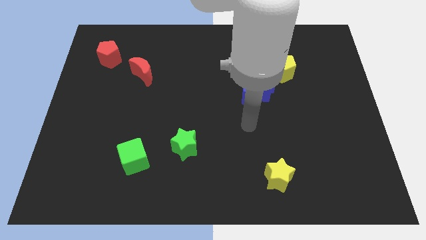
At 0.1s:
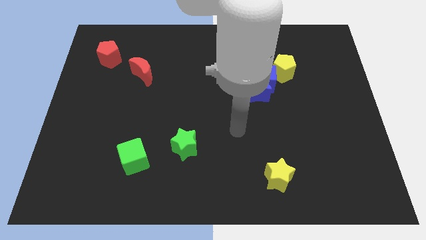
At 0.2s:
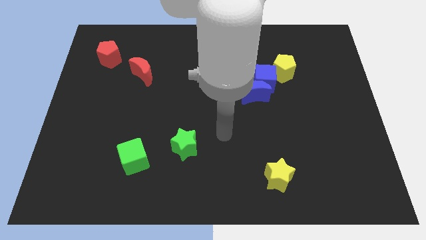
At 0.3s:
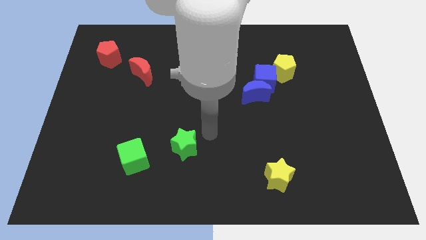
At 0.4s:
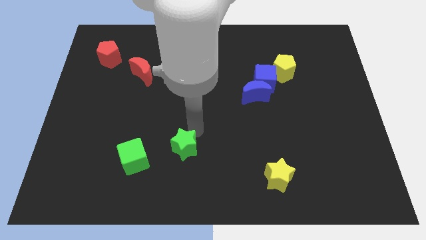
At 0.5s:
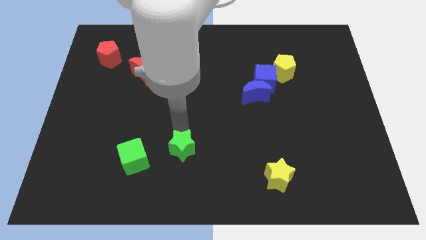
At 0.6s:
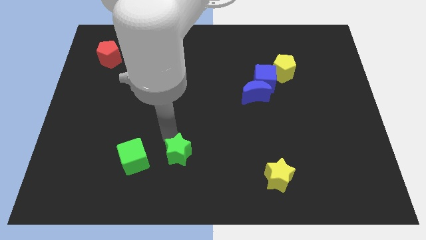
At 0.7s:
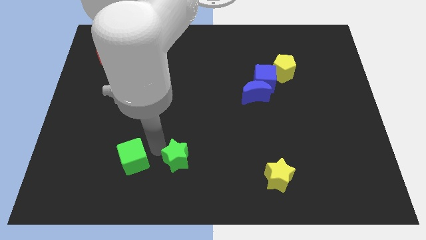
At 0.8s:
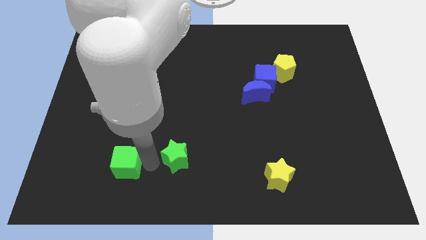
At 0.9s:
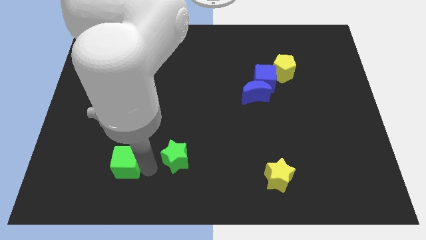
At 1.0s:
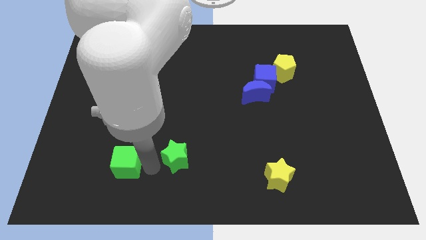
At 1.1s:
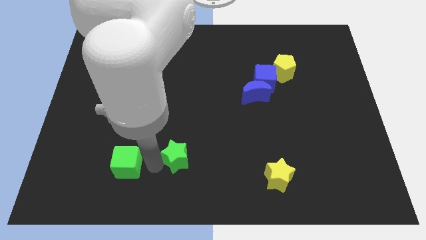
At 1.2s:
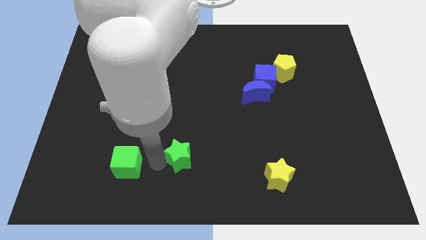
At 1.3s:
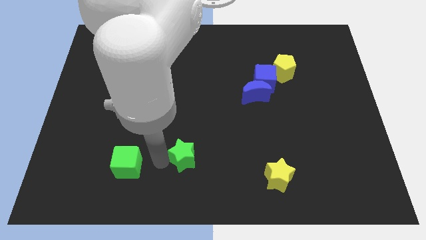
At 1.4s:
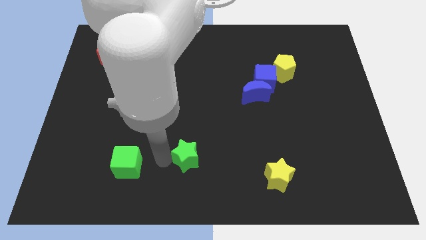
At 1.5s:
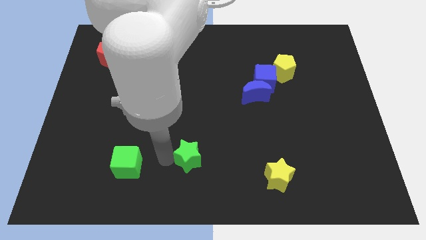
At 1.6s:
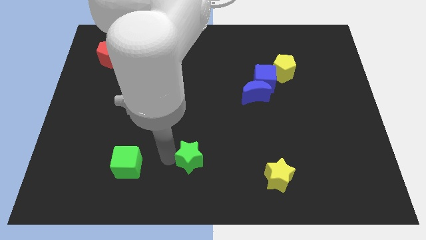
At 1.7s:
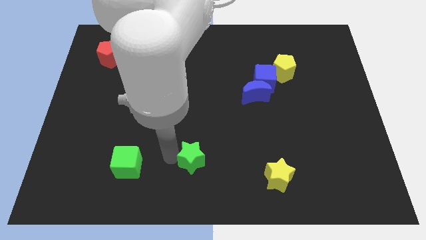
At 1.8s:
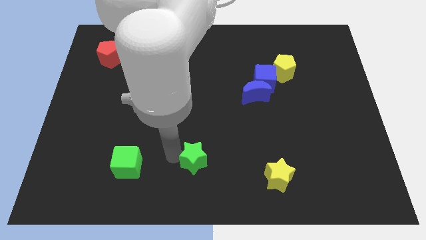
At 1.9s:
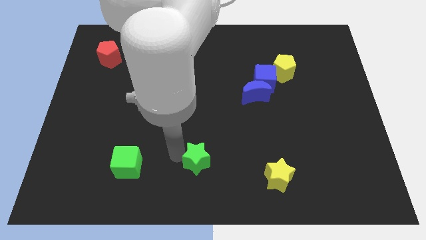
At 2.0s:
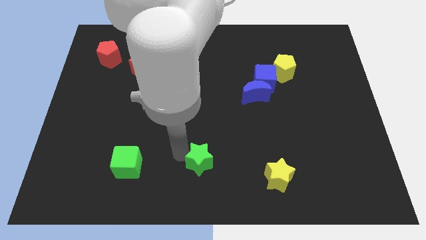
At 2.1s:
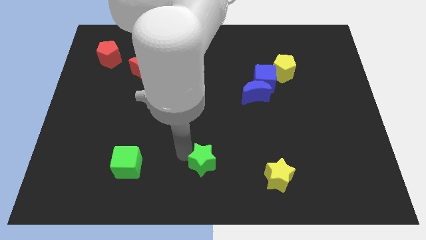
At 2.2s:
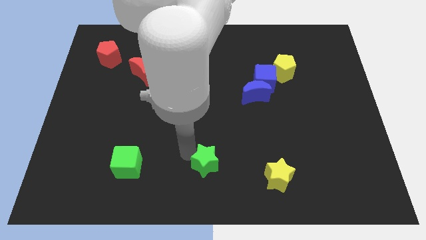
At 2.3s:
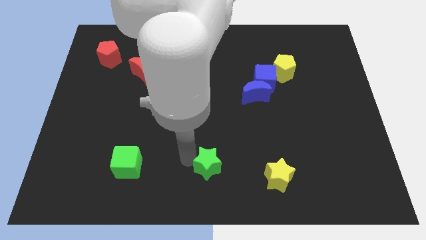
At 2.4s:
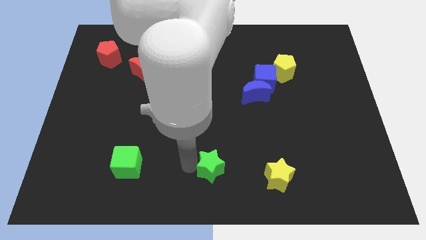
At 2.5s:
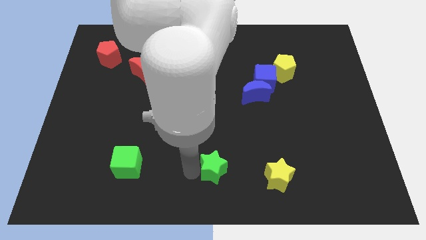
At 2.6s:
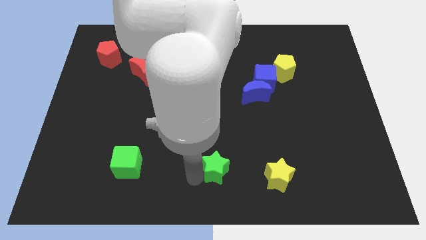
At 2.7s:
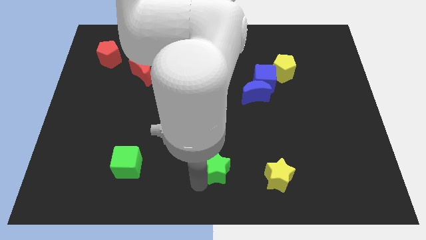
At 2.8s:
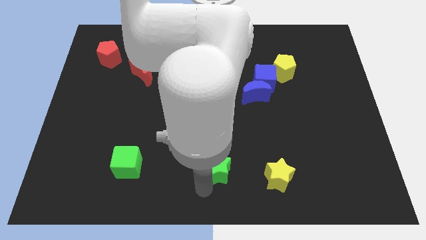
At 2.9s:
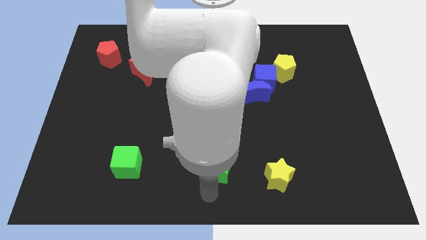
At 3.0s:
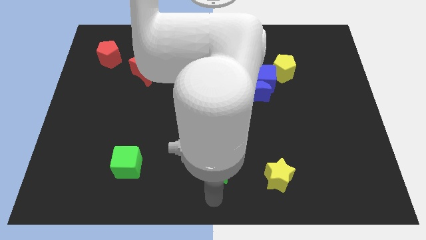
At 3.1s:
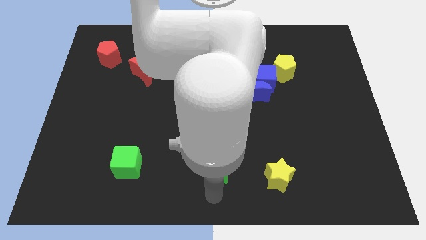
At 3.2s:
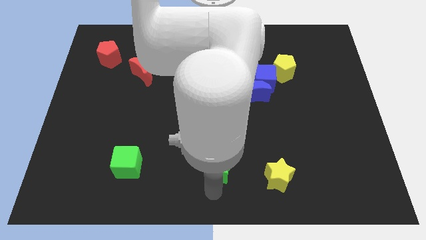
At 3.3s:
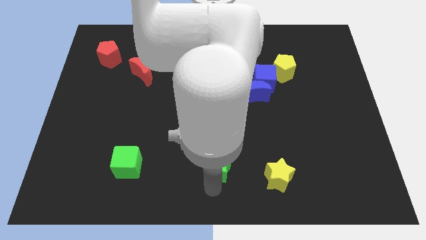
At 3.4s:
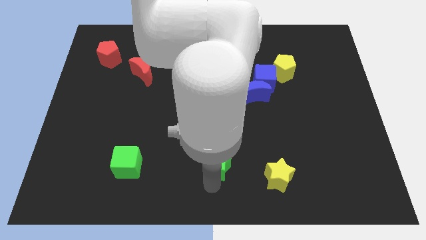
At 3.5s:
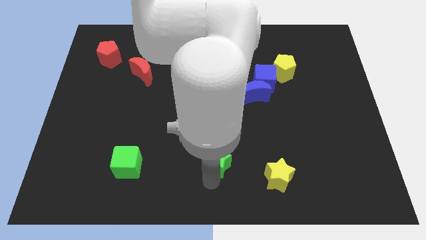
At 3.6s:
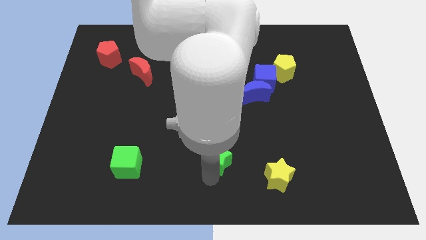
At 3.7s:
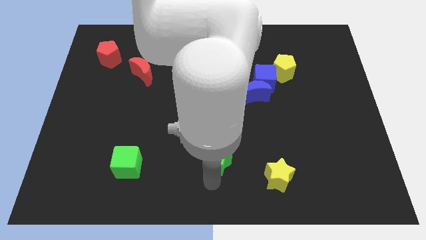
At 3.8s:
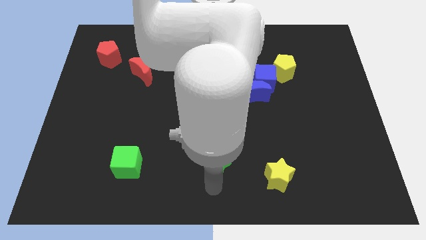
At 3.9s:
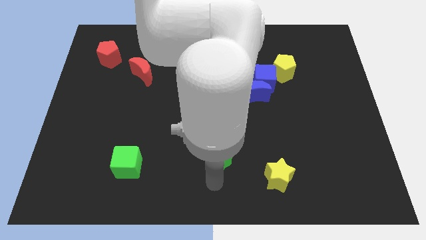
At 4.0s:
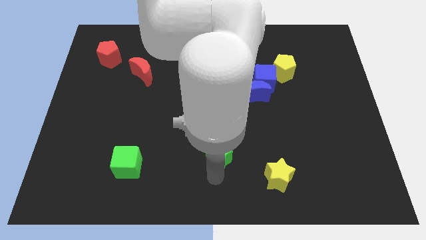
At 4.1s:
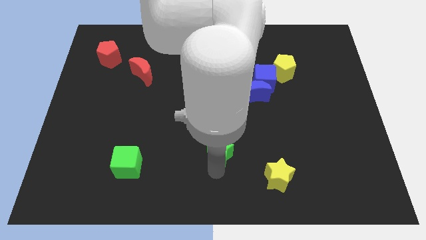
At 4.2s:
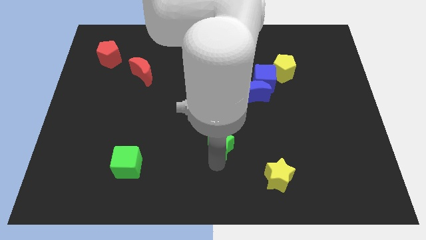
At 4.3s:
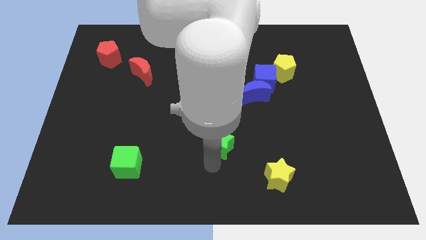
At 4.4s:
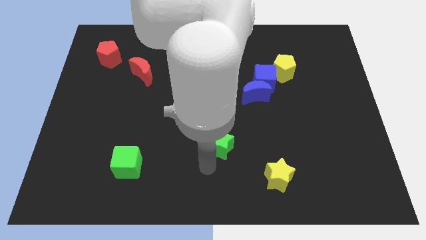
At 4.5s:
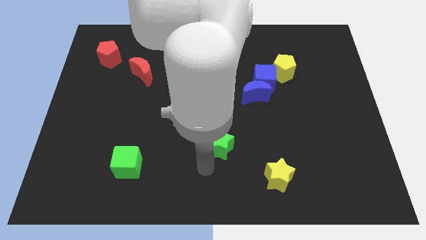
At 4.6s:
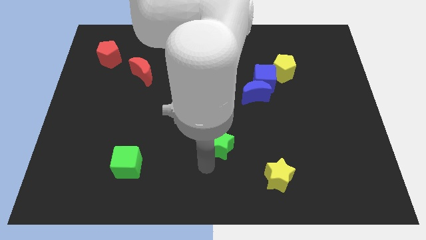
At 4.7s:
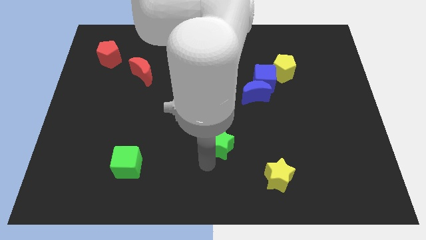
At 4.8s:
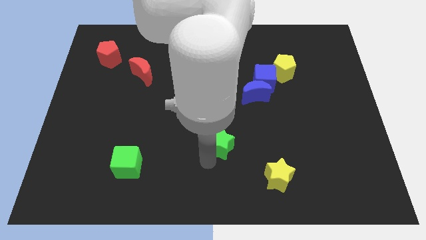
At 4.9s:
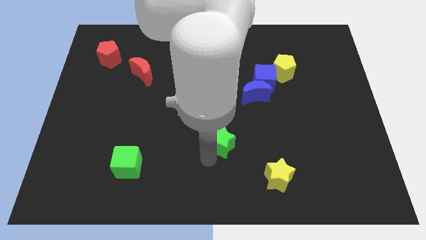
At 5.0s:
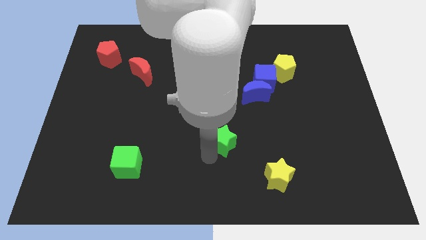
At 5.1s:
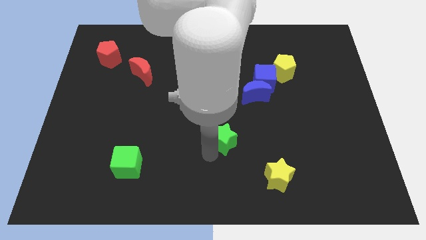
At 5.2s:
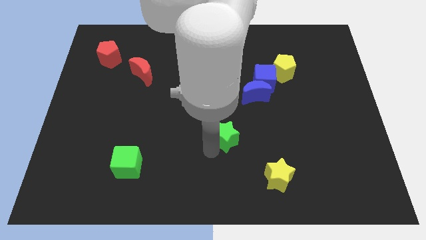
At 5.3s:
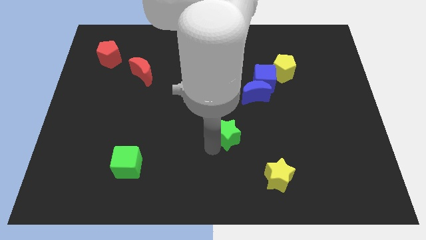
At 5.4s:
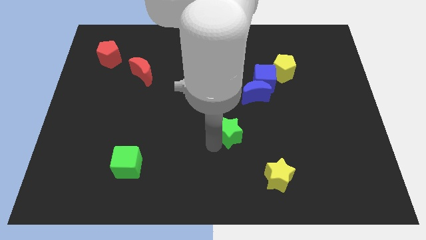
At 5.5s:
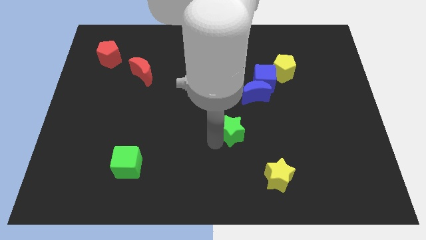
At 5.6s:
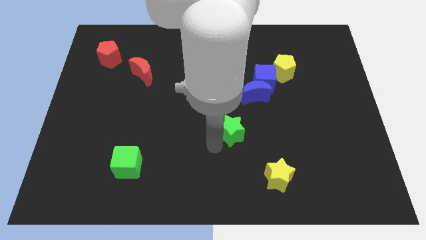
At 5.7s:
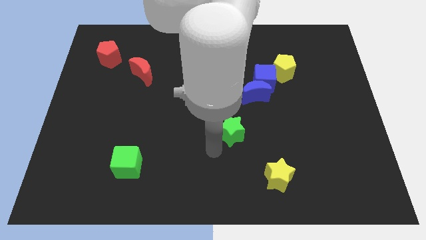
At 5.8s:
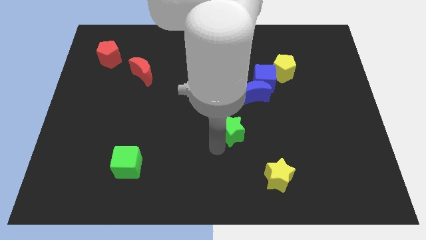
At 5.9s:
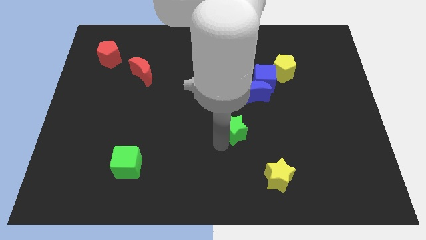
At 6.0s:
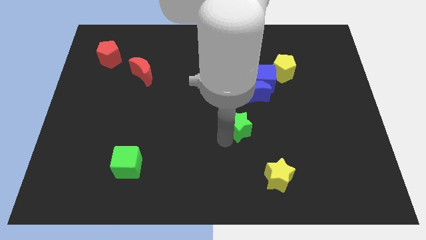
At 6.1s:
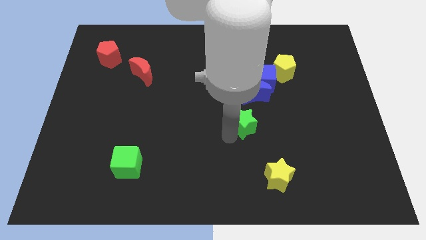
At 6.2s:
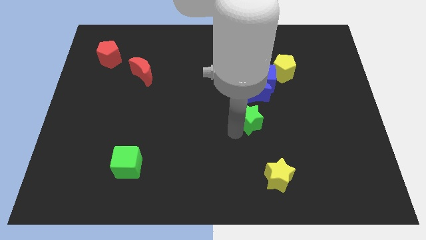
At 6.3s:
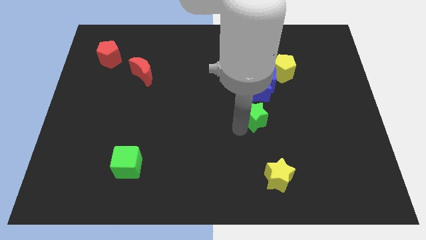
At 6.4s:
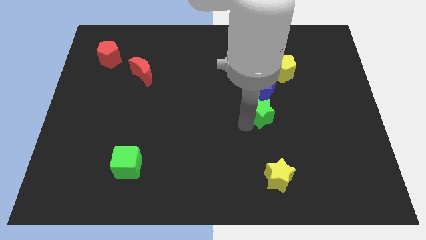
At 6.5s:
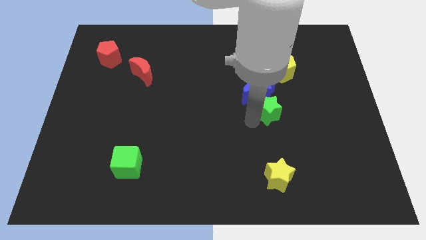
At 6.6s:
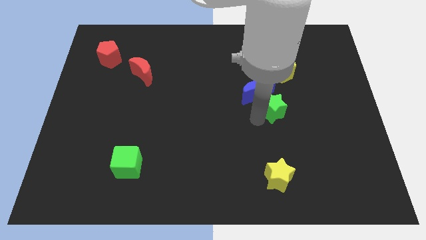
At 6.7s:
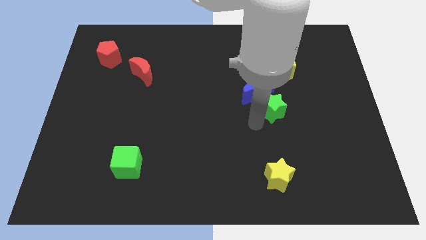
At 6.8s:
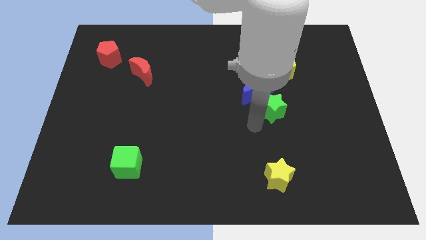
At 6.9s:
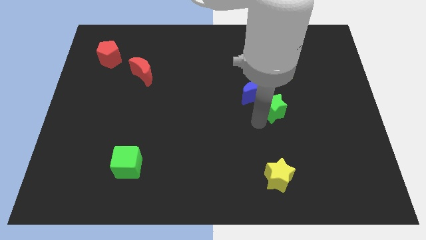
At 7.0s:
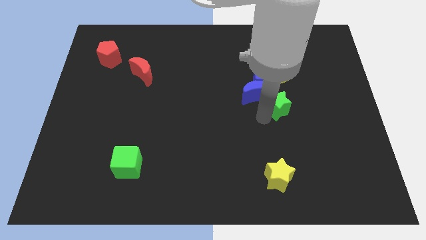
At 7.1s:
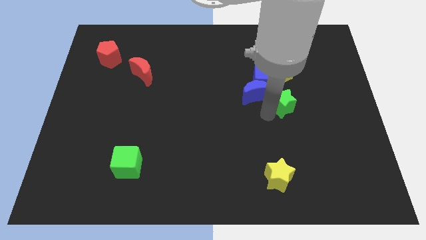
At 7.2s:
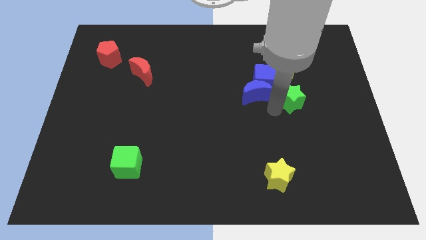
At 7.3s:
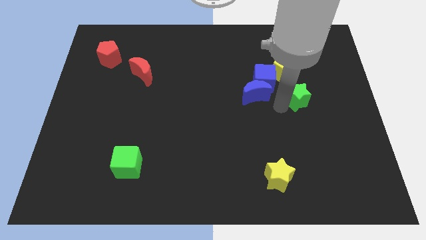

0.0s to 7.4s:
put the green star to the bottom right of the yellow pentagon
